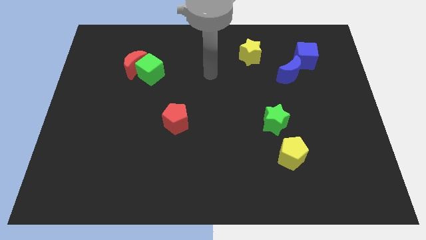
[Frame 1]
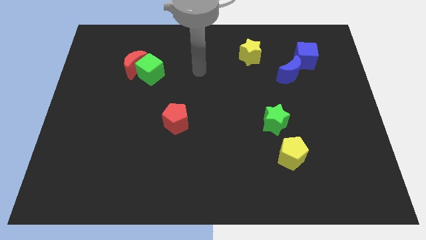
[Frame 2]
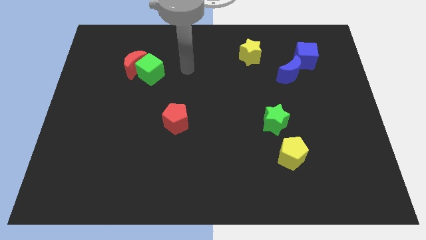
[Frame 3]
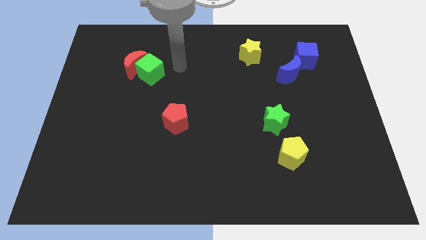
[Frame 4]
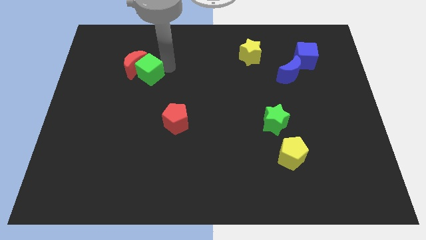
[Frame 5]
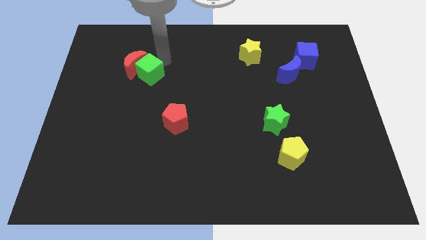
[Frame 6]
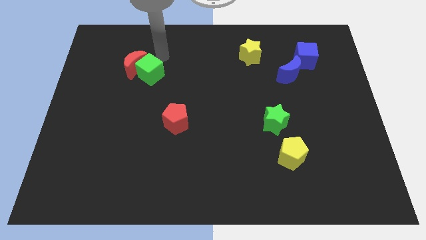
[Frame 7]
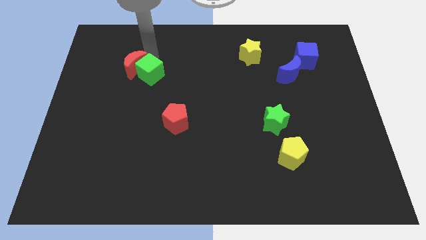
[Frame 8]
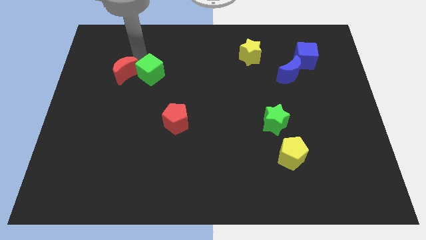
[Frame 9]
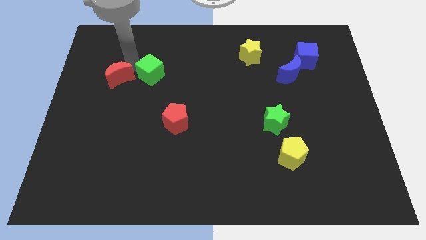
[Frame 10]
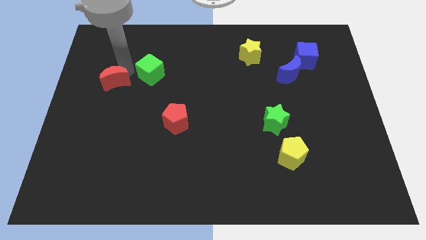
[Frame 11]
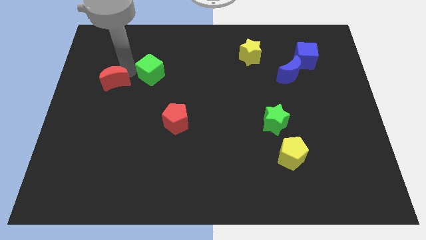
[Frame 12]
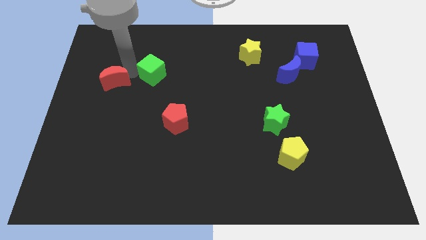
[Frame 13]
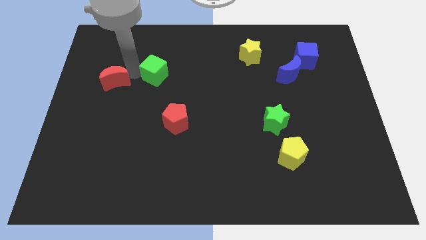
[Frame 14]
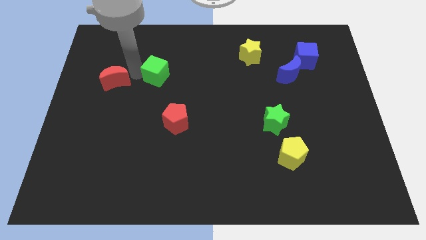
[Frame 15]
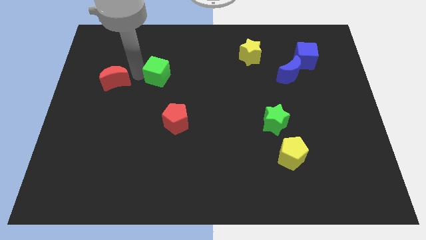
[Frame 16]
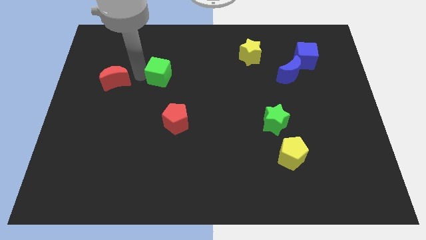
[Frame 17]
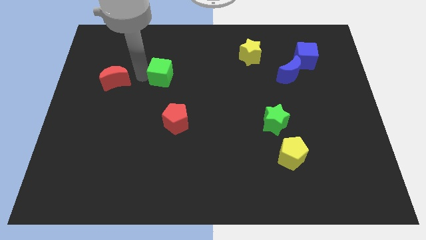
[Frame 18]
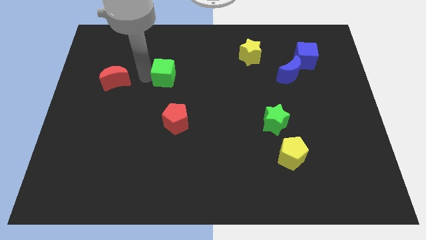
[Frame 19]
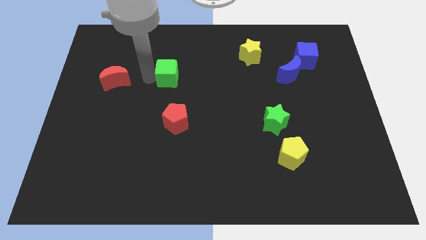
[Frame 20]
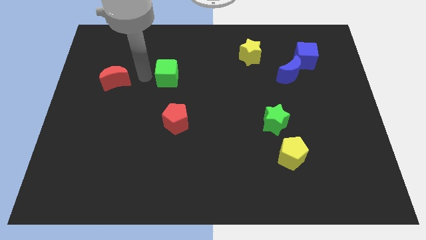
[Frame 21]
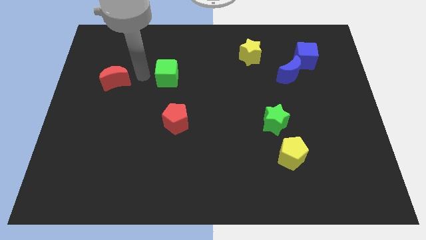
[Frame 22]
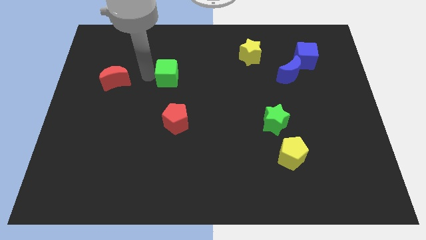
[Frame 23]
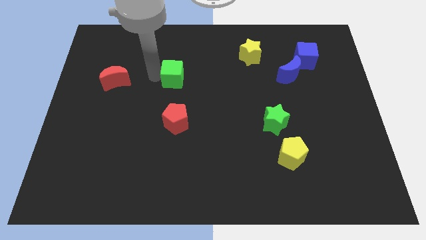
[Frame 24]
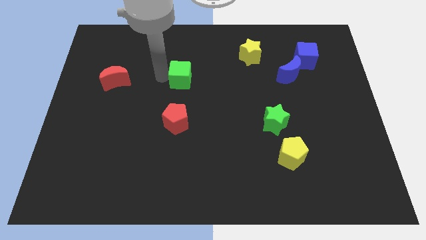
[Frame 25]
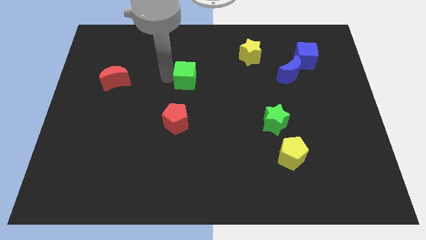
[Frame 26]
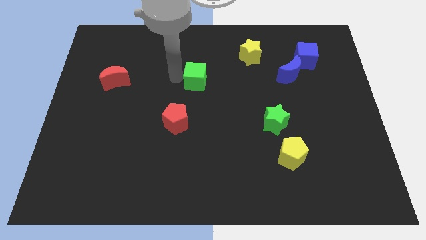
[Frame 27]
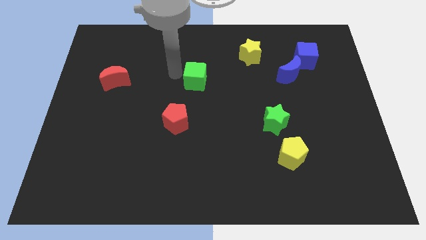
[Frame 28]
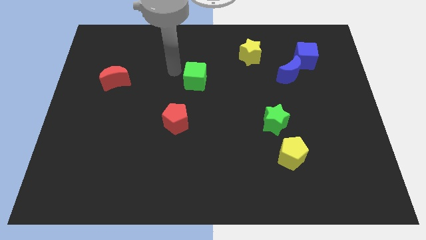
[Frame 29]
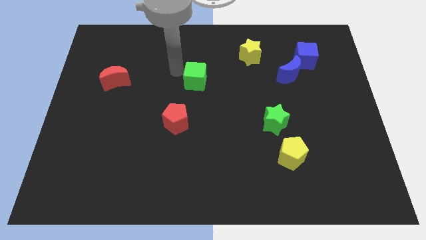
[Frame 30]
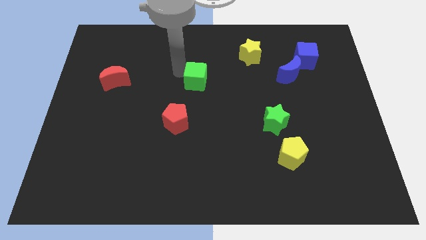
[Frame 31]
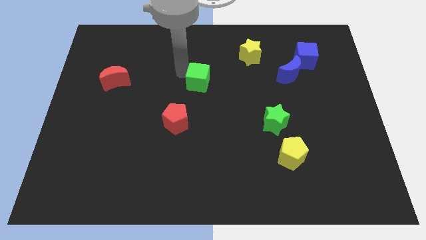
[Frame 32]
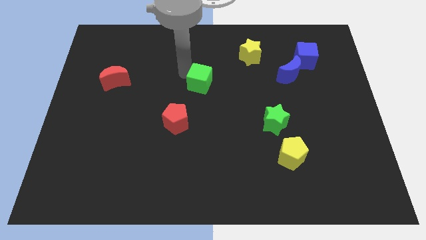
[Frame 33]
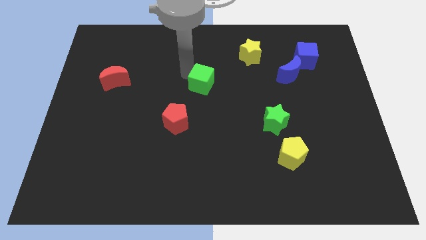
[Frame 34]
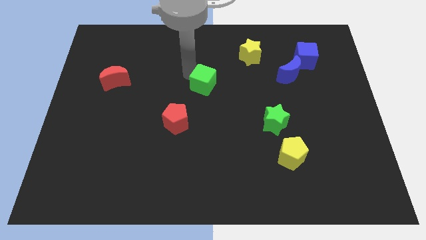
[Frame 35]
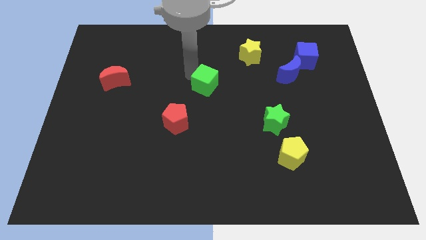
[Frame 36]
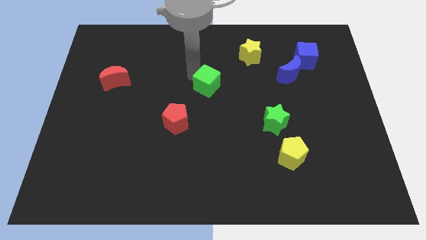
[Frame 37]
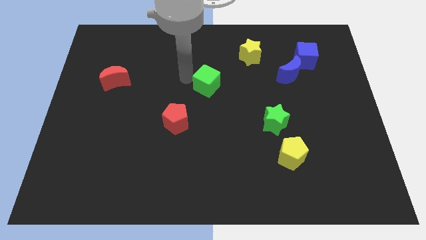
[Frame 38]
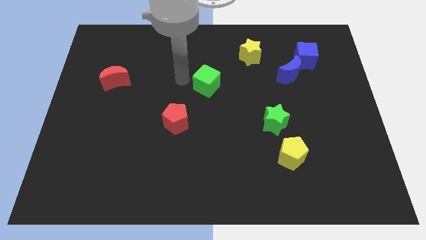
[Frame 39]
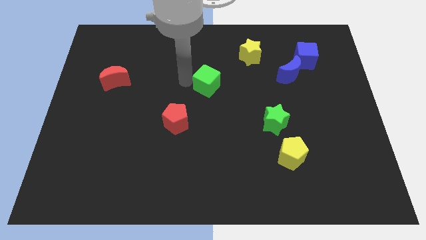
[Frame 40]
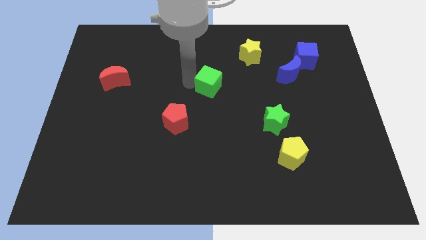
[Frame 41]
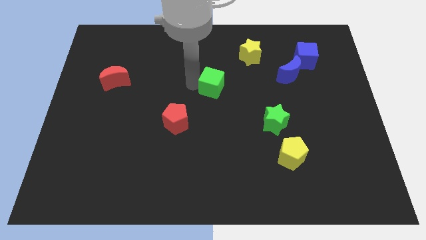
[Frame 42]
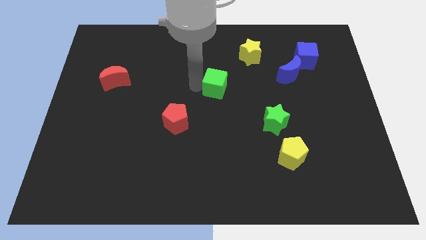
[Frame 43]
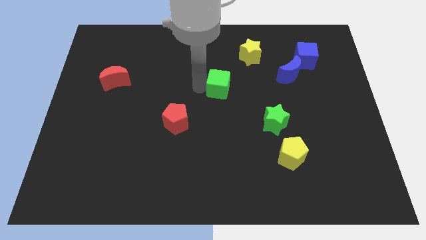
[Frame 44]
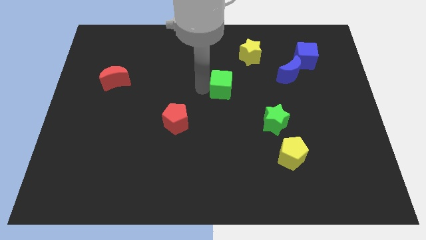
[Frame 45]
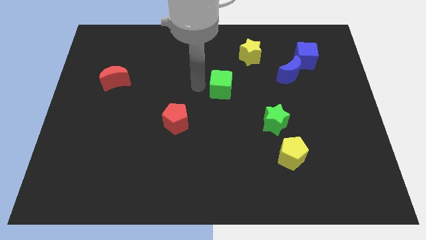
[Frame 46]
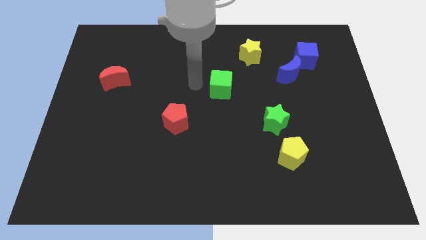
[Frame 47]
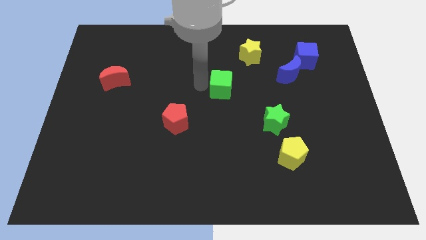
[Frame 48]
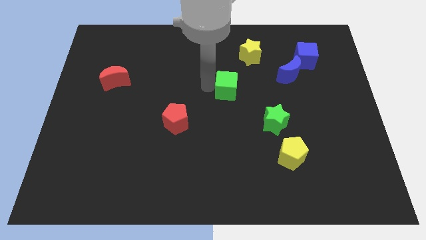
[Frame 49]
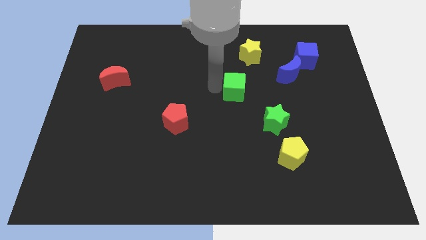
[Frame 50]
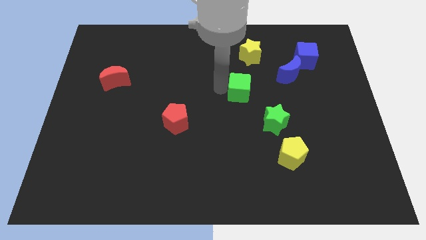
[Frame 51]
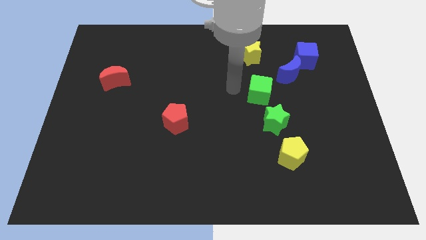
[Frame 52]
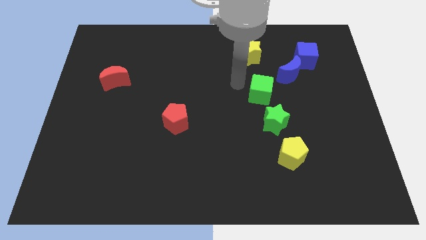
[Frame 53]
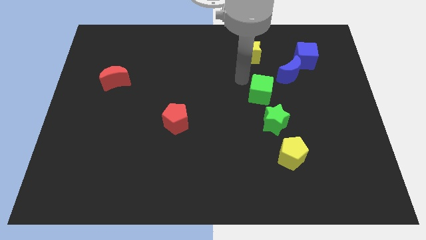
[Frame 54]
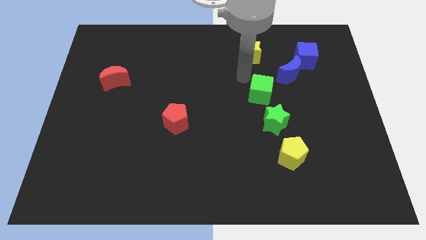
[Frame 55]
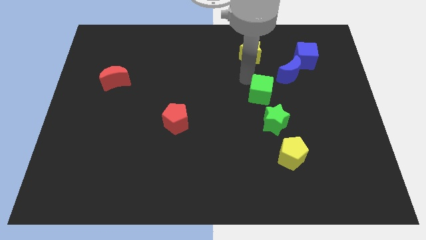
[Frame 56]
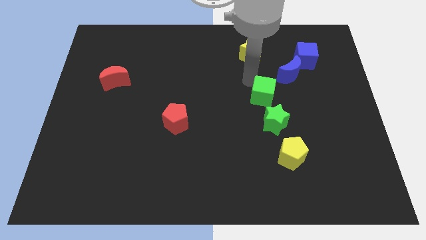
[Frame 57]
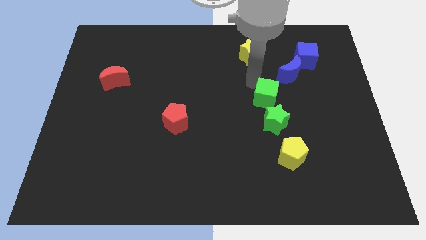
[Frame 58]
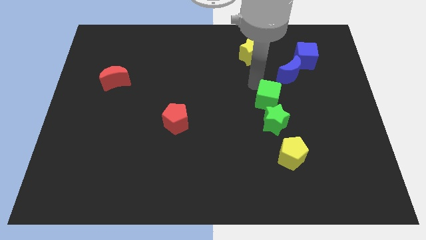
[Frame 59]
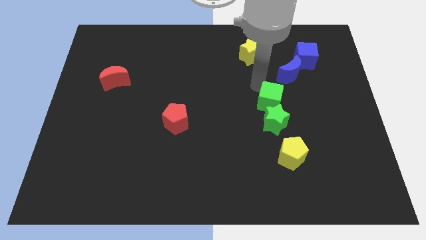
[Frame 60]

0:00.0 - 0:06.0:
move the green cube to the top of the yellow pentagon

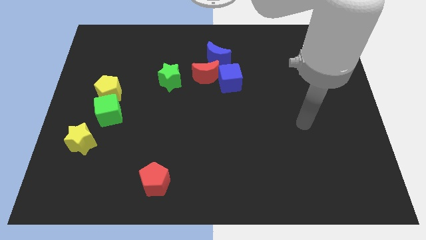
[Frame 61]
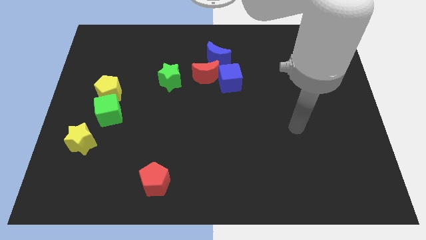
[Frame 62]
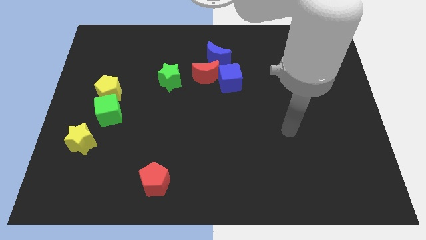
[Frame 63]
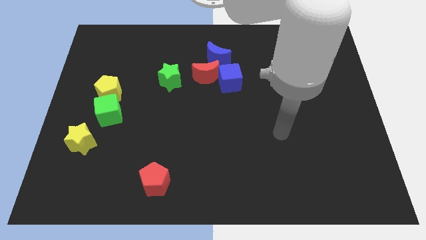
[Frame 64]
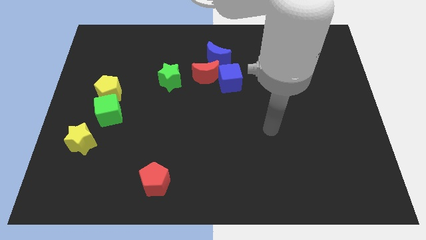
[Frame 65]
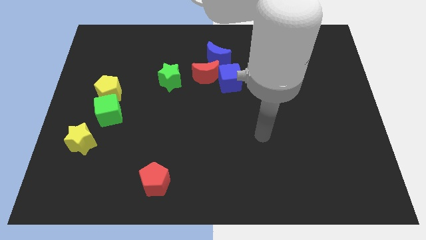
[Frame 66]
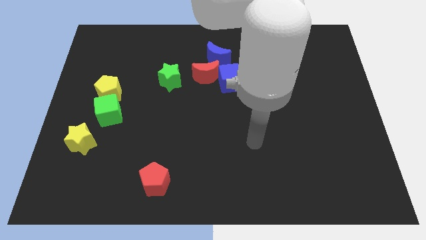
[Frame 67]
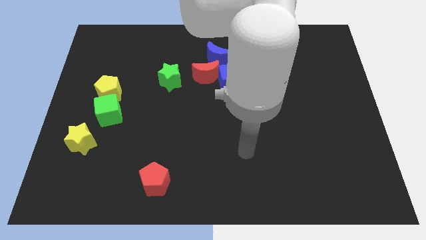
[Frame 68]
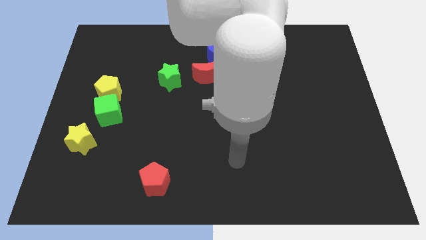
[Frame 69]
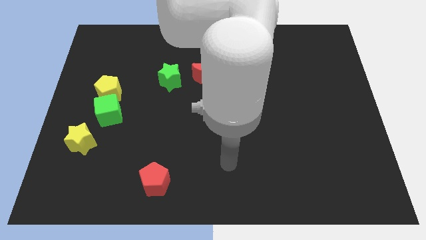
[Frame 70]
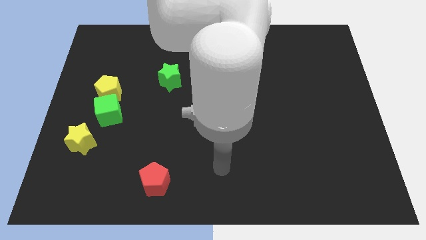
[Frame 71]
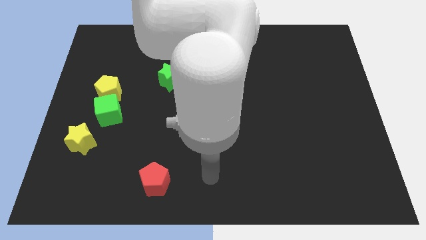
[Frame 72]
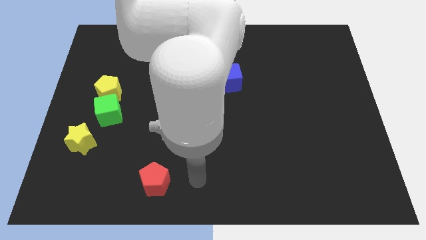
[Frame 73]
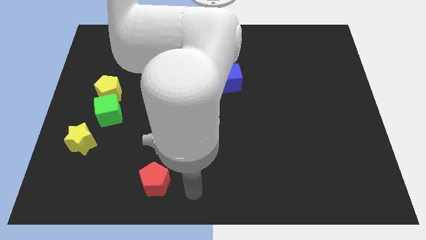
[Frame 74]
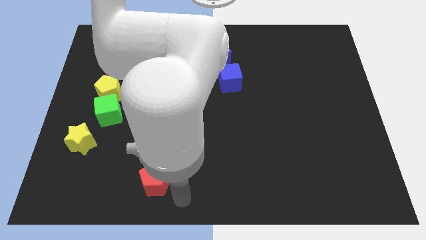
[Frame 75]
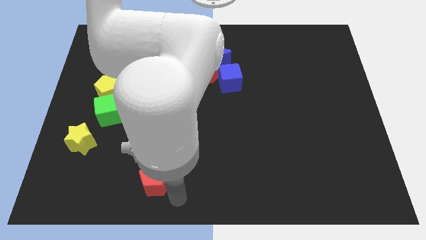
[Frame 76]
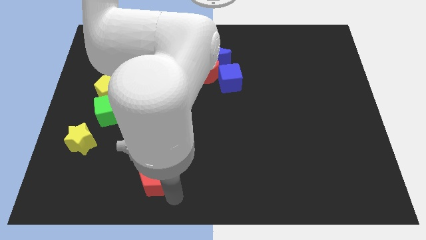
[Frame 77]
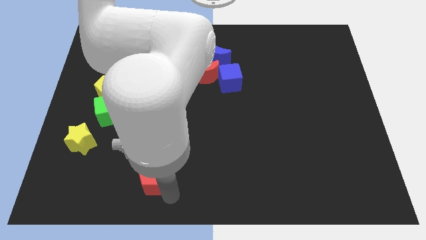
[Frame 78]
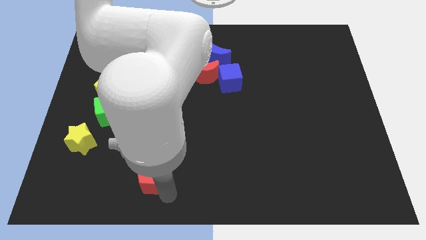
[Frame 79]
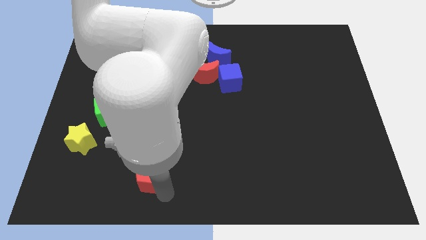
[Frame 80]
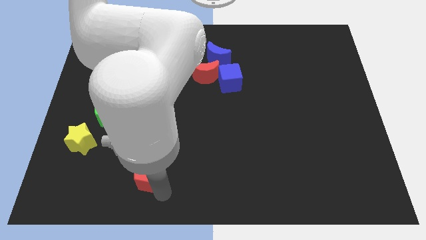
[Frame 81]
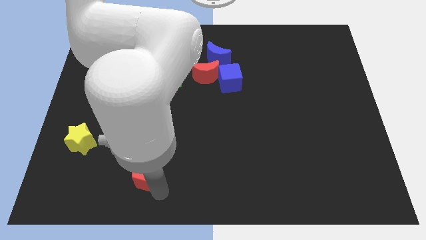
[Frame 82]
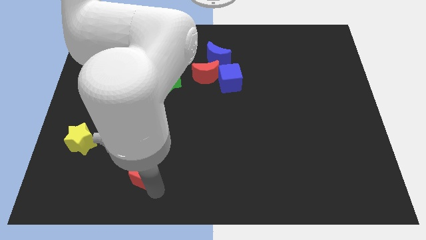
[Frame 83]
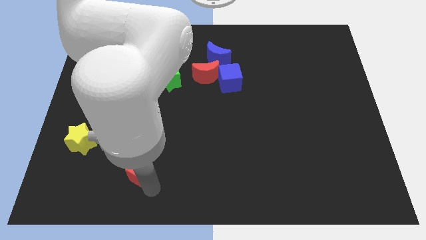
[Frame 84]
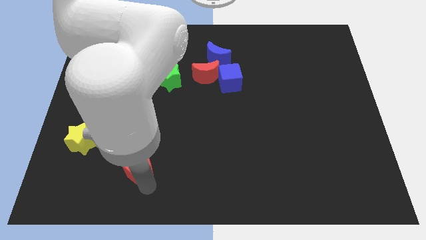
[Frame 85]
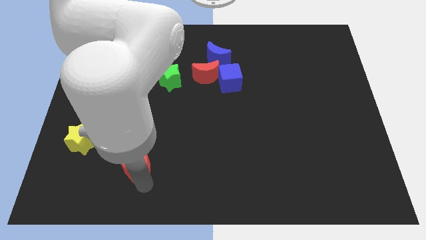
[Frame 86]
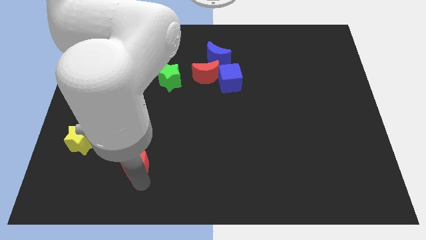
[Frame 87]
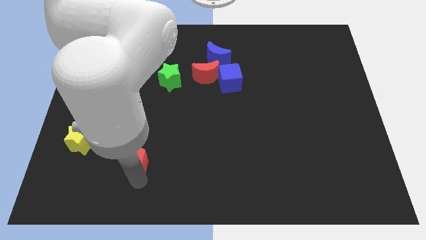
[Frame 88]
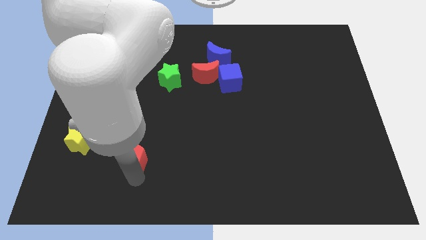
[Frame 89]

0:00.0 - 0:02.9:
push the red pentagon to the right side of the yellow star
